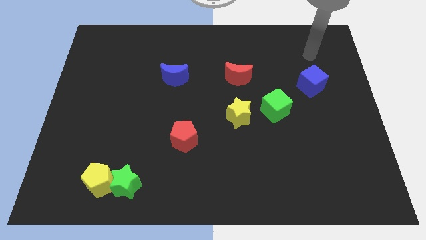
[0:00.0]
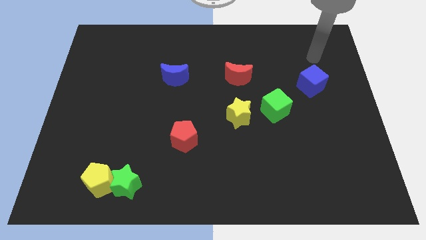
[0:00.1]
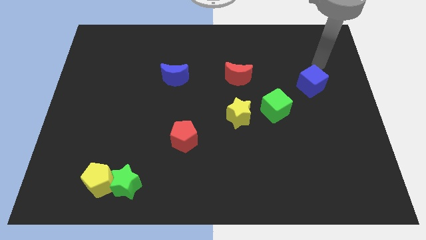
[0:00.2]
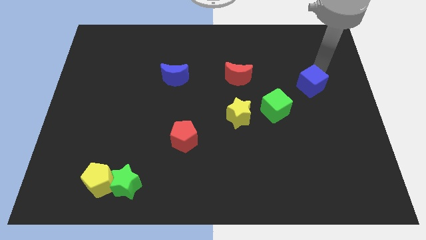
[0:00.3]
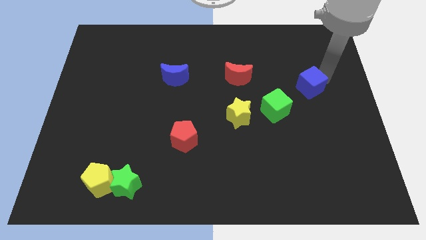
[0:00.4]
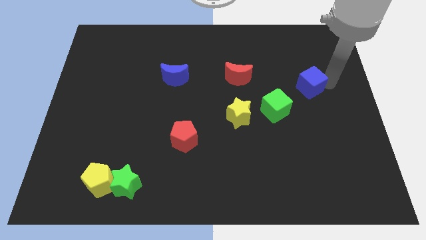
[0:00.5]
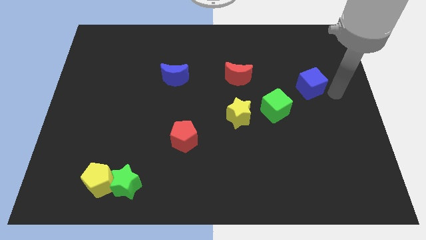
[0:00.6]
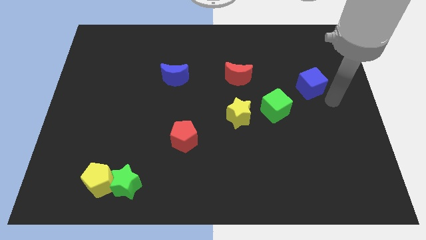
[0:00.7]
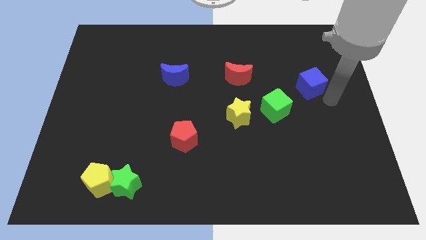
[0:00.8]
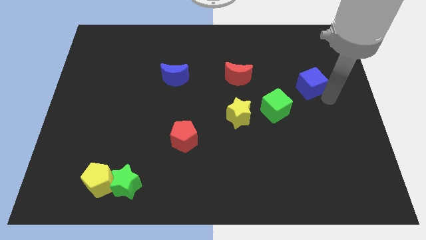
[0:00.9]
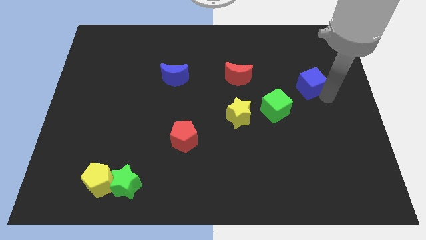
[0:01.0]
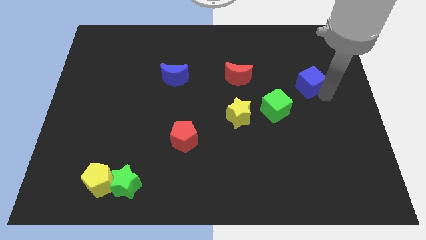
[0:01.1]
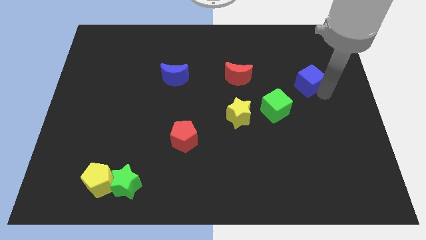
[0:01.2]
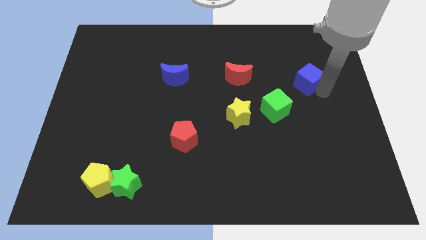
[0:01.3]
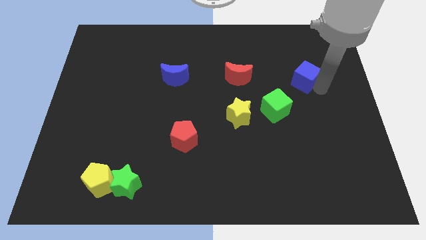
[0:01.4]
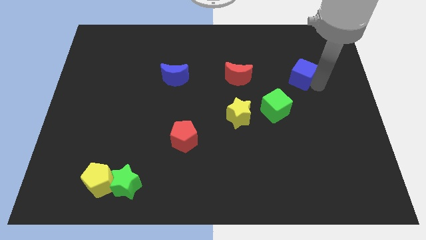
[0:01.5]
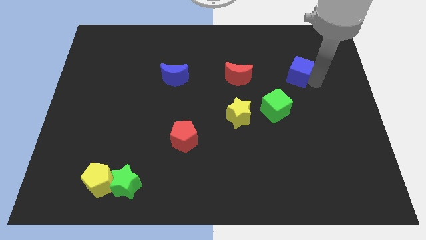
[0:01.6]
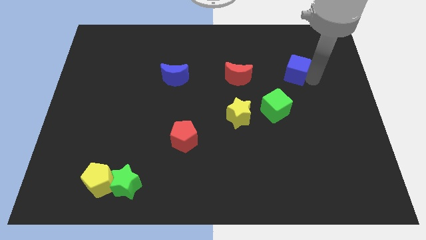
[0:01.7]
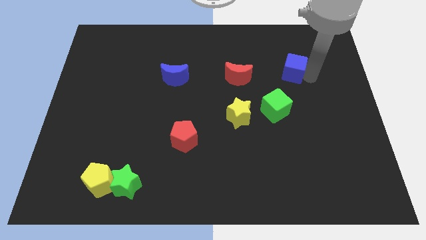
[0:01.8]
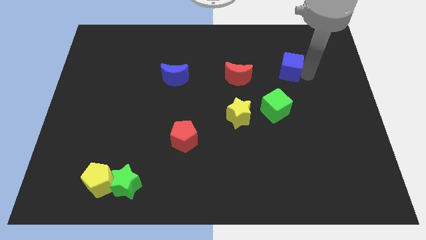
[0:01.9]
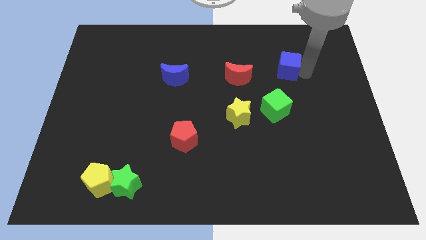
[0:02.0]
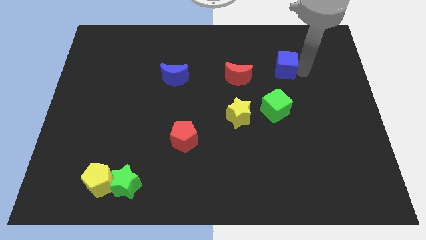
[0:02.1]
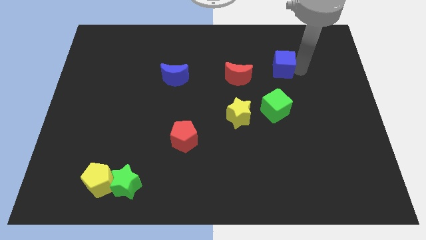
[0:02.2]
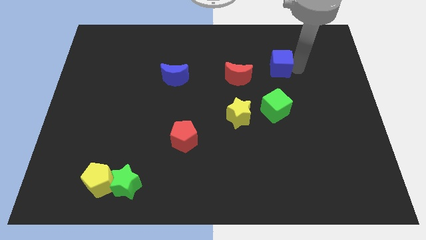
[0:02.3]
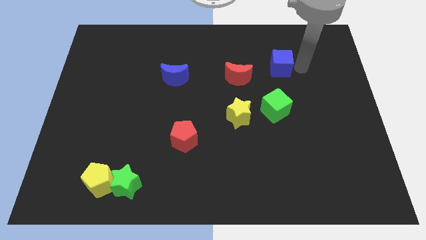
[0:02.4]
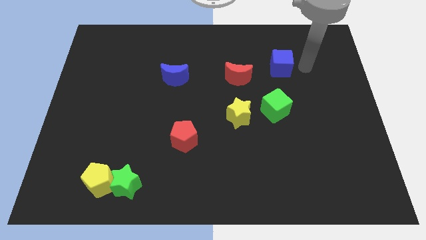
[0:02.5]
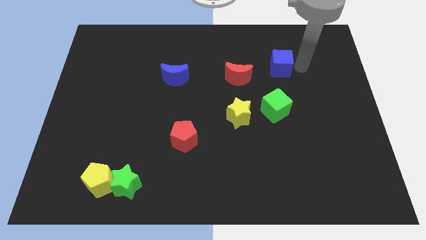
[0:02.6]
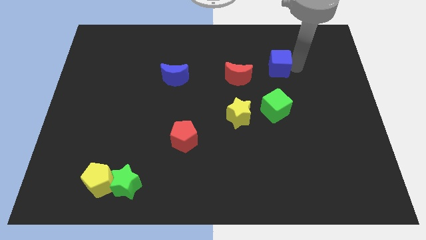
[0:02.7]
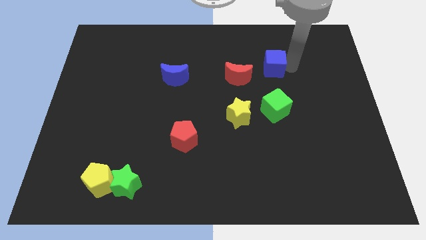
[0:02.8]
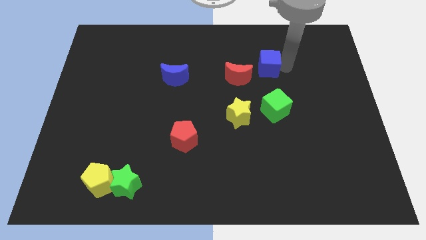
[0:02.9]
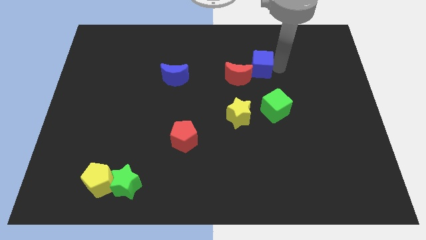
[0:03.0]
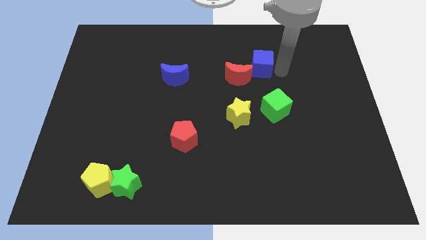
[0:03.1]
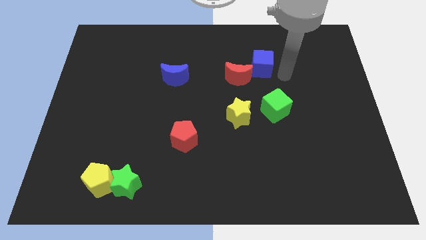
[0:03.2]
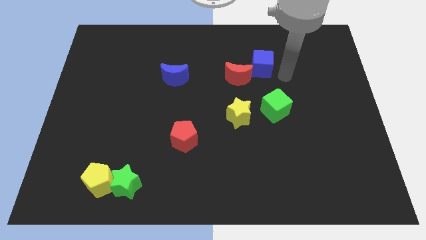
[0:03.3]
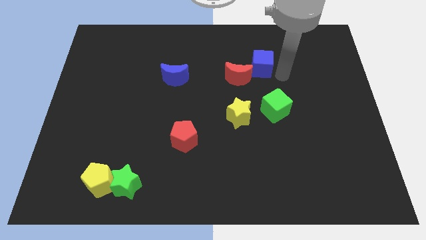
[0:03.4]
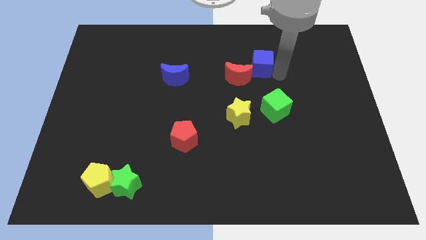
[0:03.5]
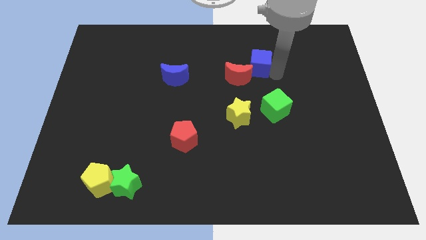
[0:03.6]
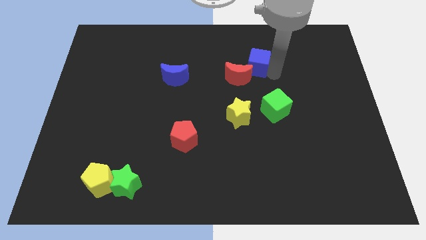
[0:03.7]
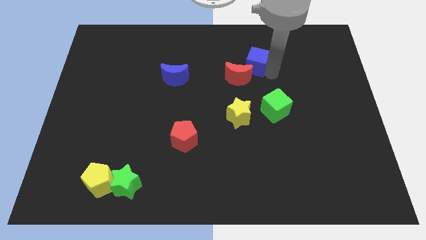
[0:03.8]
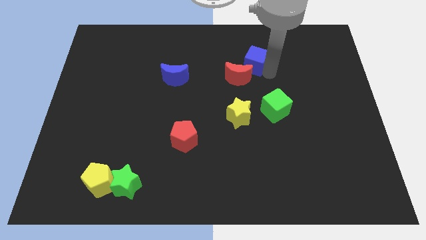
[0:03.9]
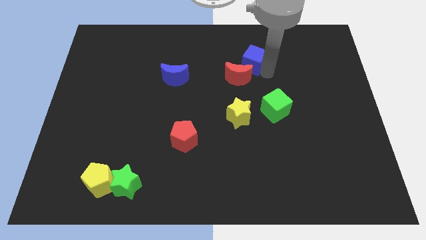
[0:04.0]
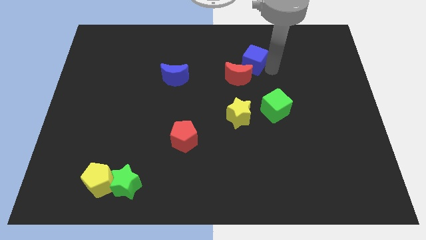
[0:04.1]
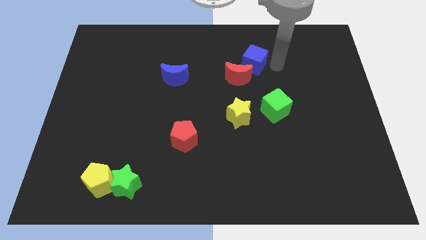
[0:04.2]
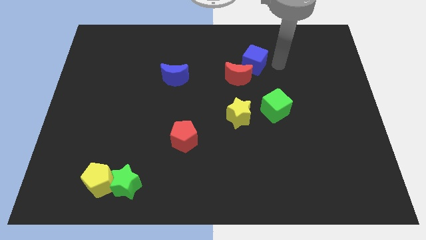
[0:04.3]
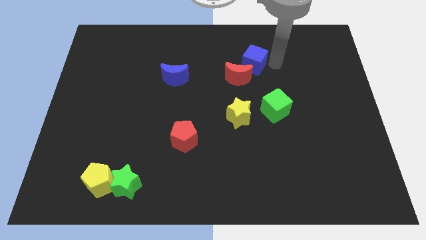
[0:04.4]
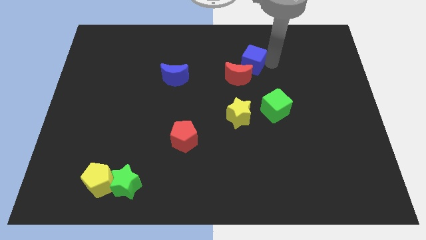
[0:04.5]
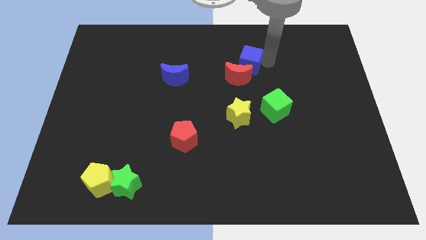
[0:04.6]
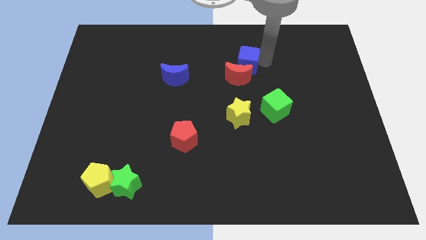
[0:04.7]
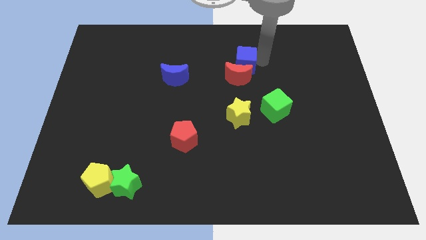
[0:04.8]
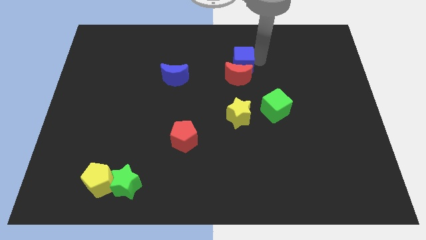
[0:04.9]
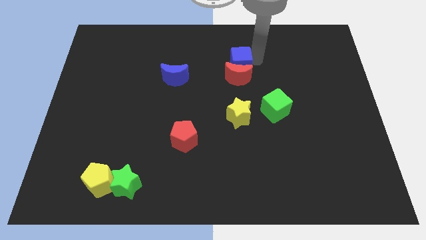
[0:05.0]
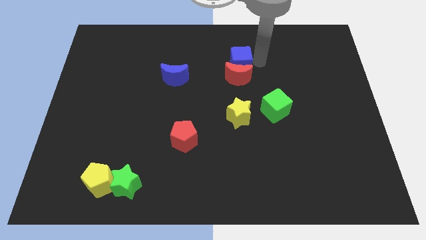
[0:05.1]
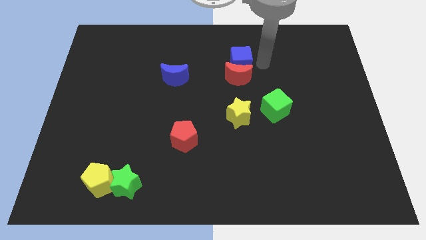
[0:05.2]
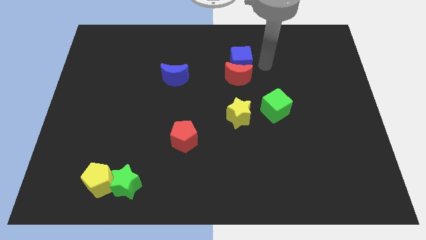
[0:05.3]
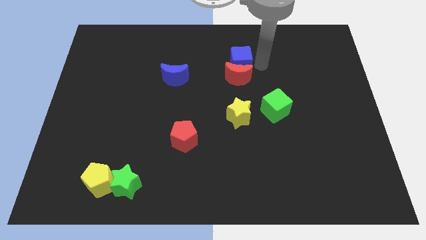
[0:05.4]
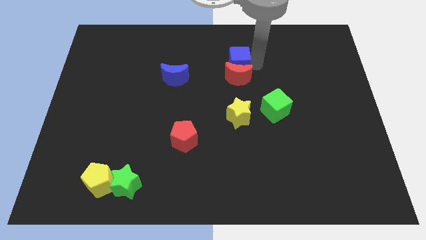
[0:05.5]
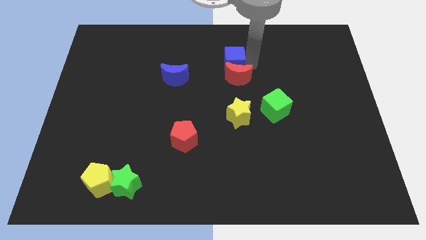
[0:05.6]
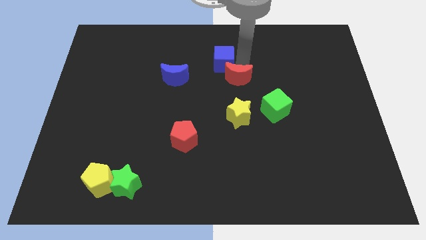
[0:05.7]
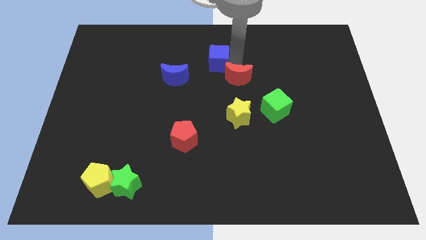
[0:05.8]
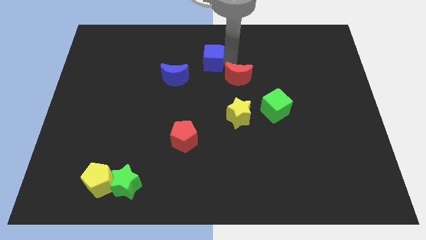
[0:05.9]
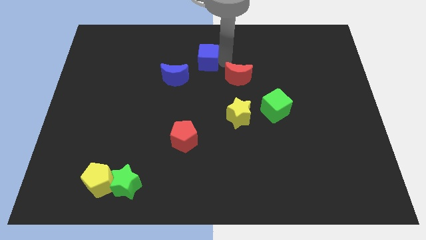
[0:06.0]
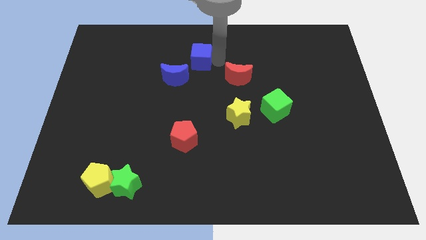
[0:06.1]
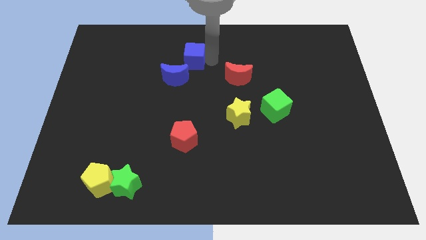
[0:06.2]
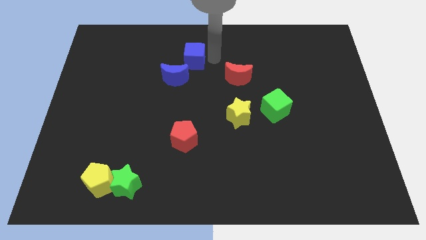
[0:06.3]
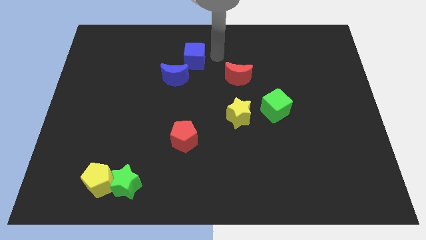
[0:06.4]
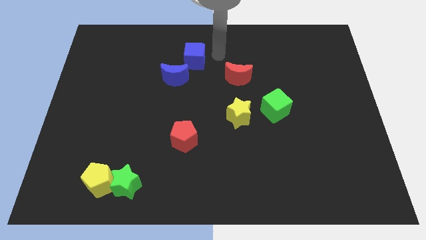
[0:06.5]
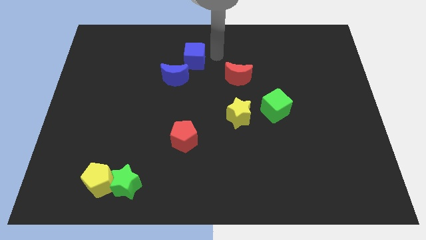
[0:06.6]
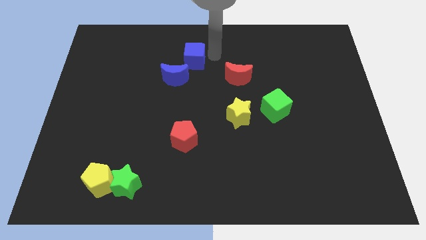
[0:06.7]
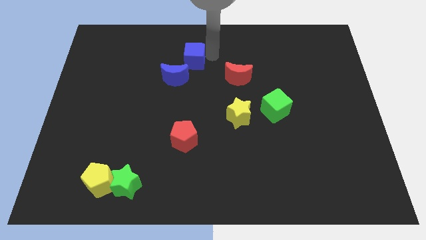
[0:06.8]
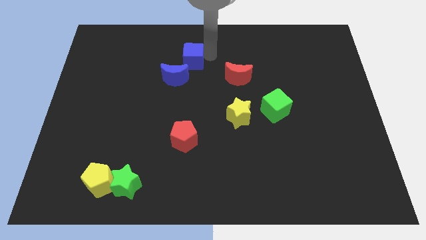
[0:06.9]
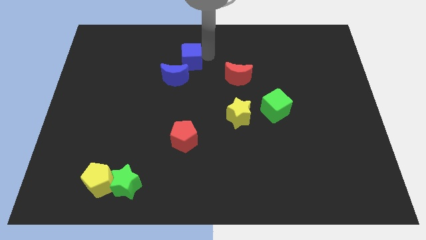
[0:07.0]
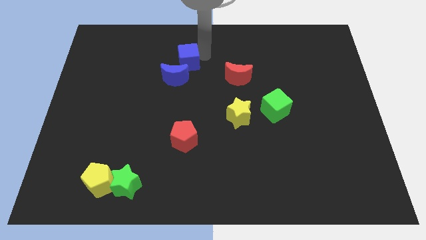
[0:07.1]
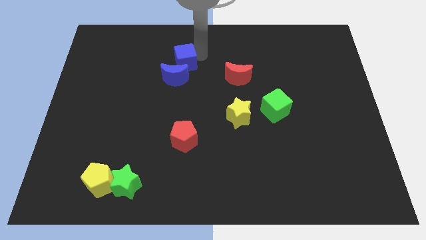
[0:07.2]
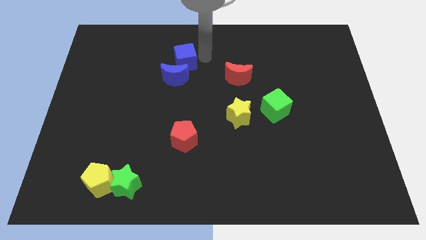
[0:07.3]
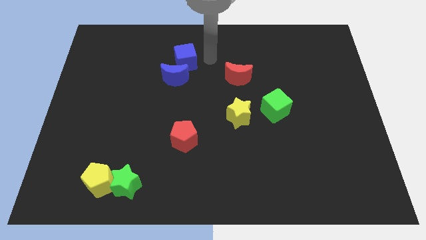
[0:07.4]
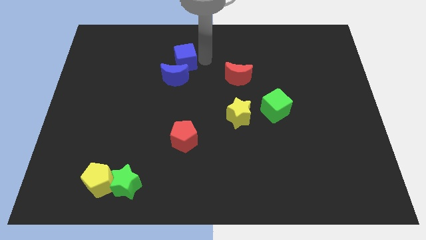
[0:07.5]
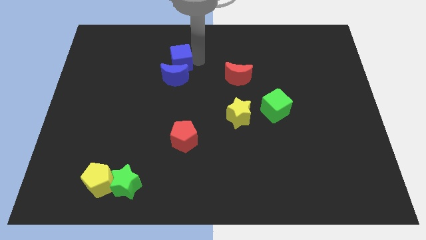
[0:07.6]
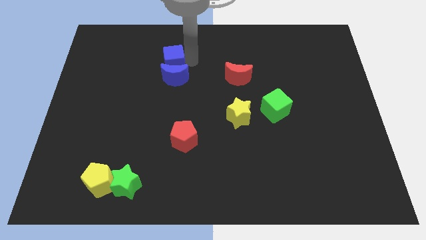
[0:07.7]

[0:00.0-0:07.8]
put the blue cube to the top left side of the blue moon
